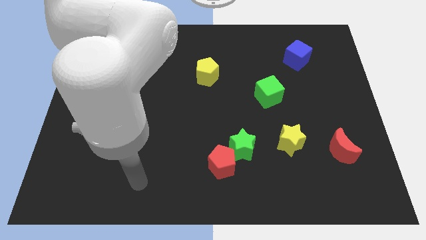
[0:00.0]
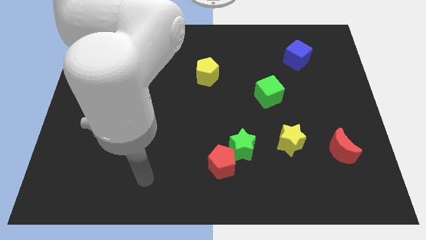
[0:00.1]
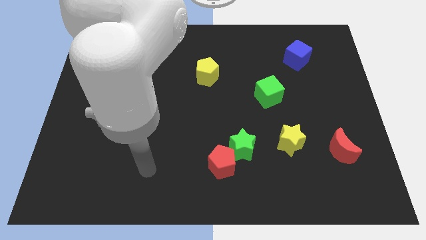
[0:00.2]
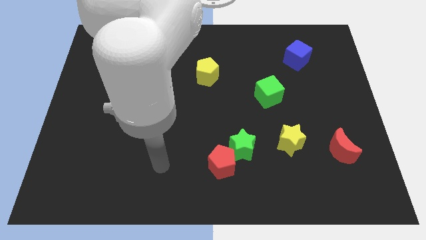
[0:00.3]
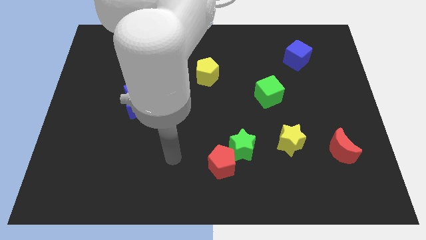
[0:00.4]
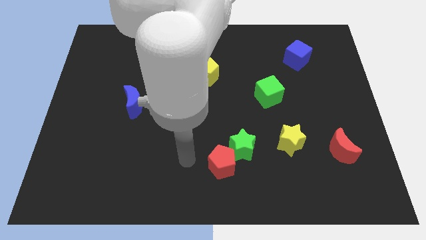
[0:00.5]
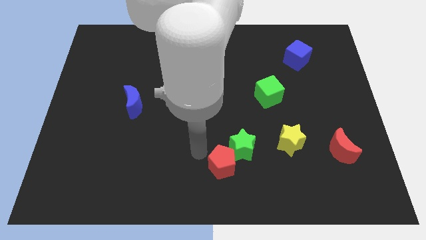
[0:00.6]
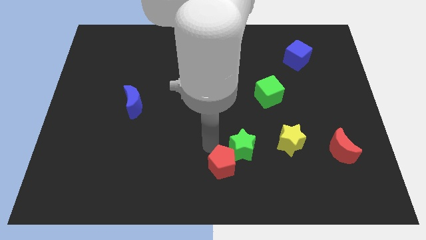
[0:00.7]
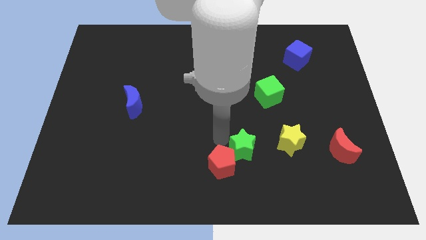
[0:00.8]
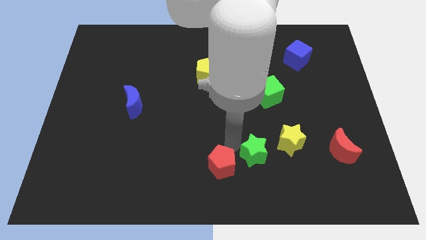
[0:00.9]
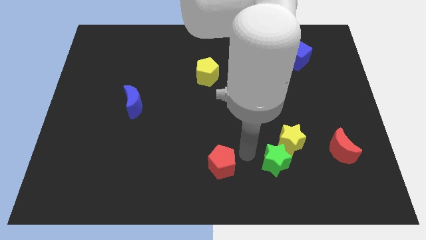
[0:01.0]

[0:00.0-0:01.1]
separate the red pentagon from the green star

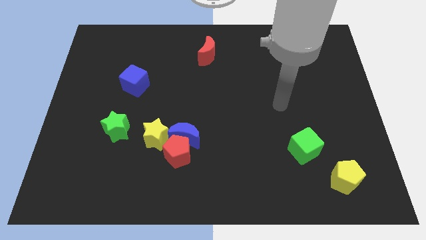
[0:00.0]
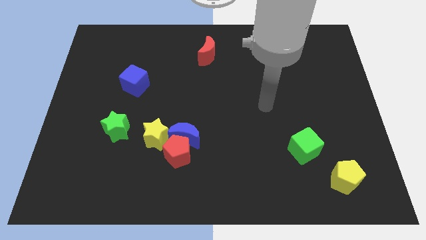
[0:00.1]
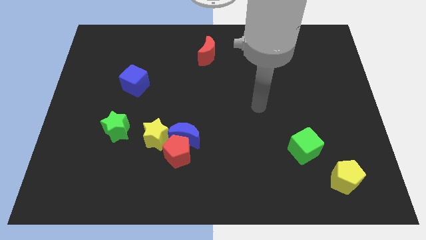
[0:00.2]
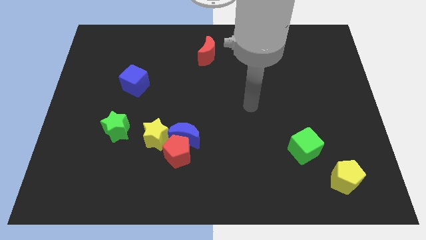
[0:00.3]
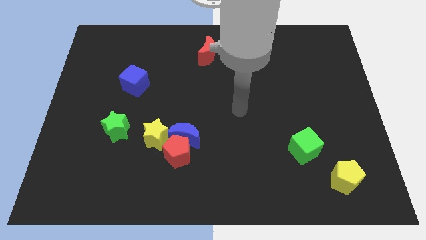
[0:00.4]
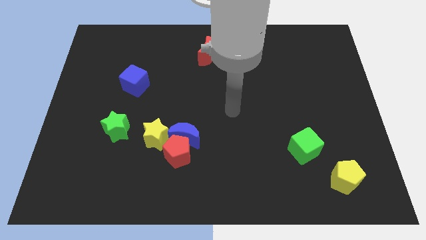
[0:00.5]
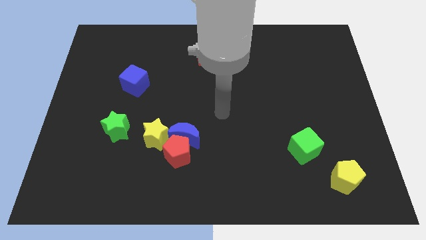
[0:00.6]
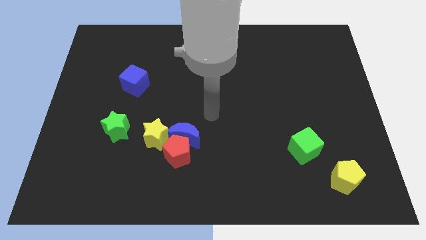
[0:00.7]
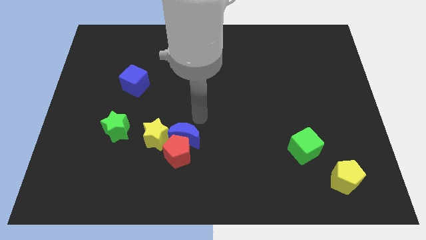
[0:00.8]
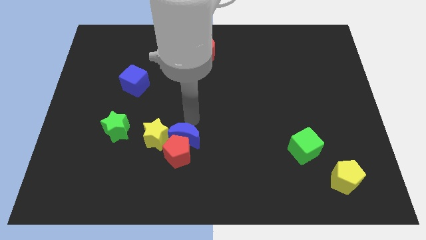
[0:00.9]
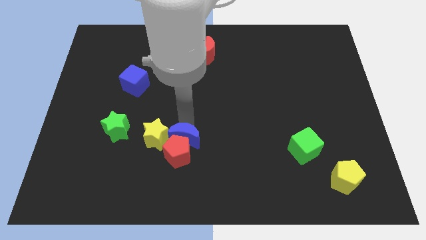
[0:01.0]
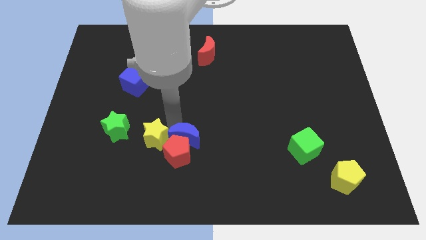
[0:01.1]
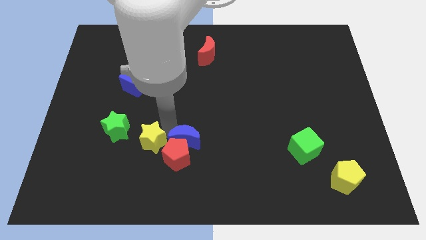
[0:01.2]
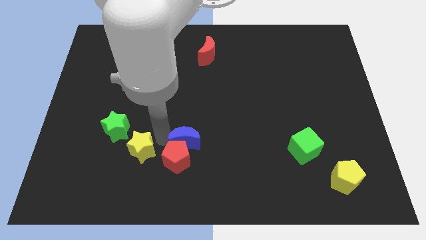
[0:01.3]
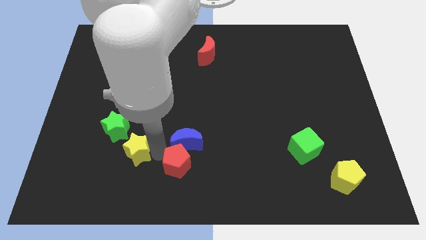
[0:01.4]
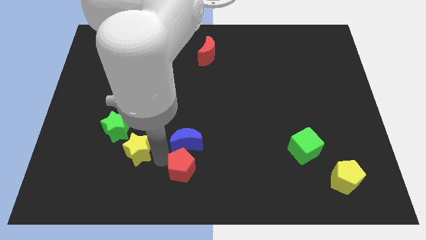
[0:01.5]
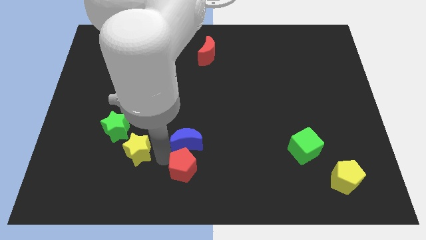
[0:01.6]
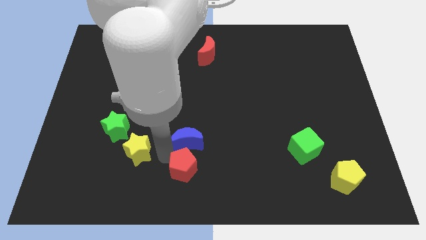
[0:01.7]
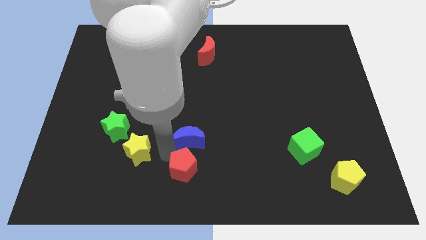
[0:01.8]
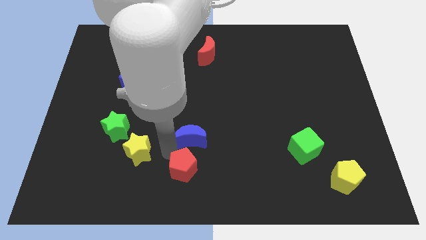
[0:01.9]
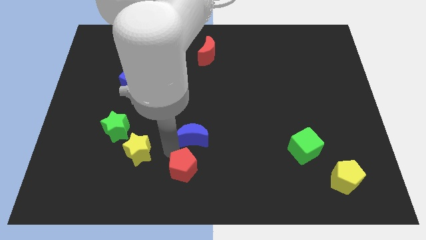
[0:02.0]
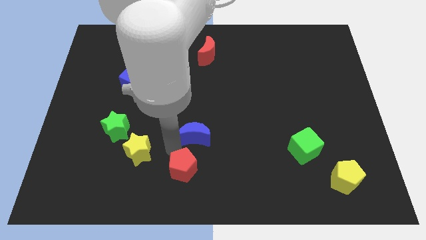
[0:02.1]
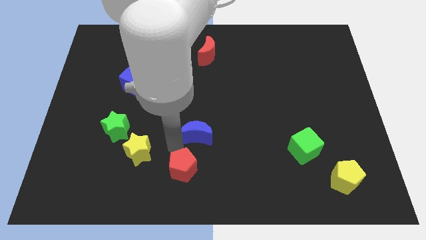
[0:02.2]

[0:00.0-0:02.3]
pull the blue moon apart from the red pentagon and yellow star

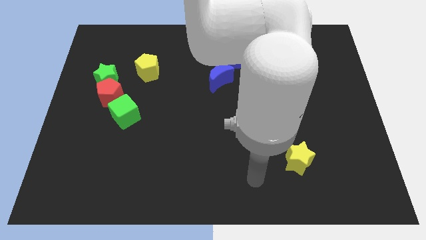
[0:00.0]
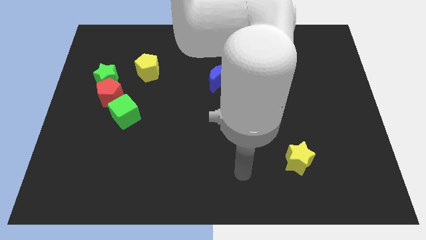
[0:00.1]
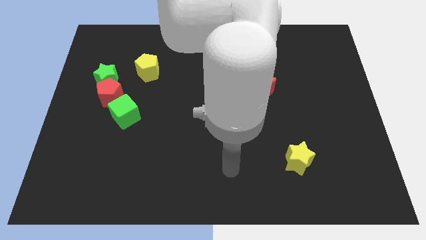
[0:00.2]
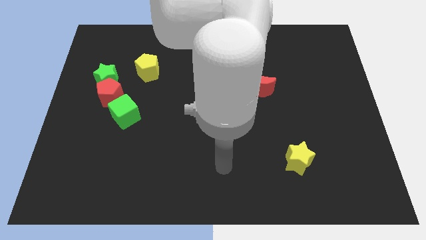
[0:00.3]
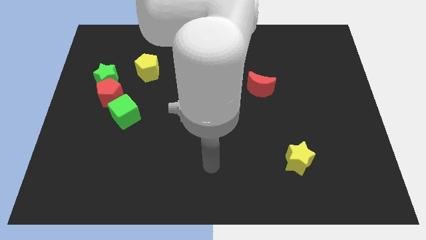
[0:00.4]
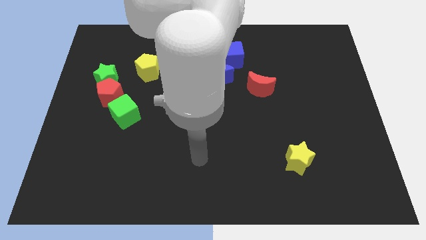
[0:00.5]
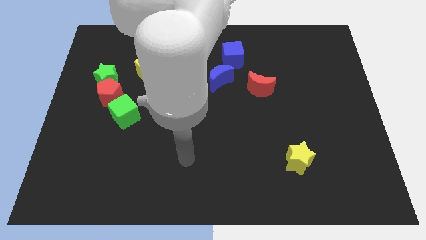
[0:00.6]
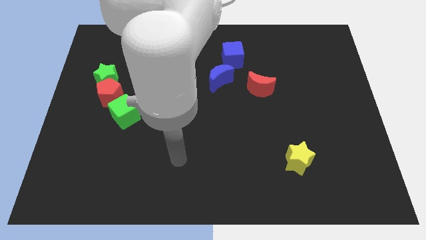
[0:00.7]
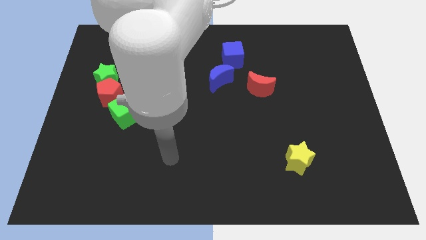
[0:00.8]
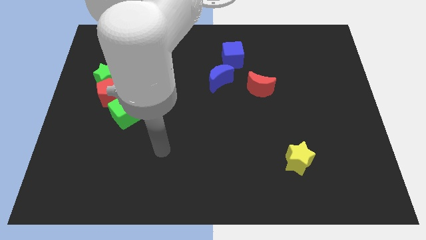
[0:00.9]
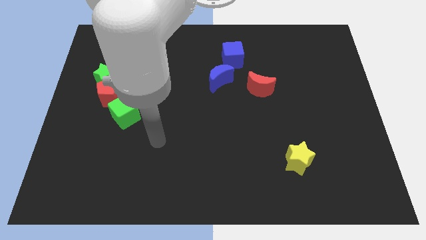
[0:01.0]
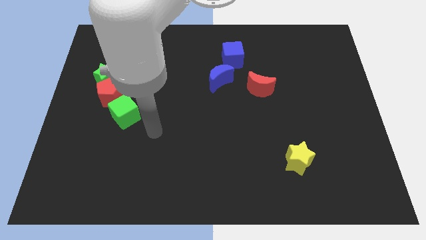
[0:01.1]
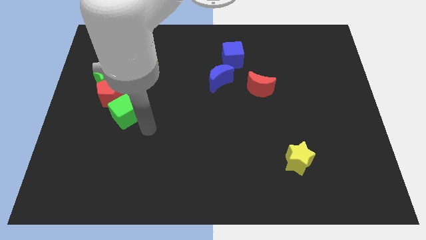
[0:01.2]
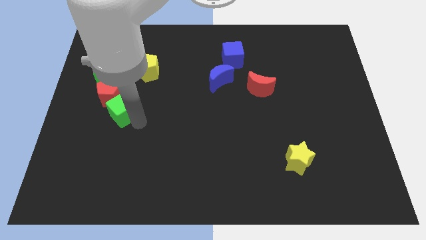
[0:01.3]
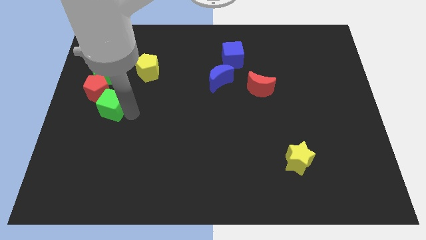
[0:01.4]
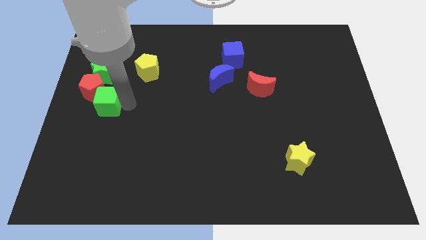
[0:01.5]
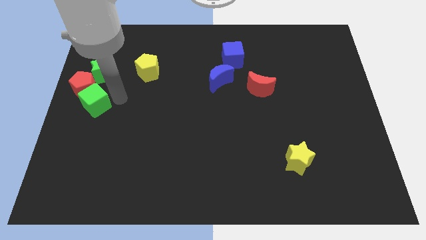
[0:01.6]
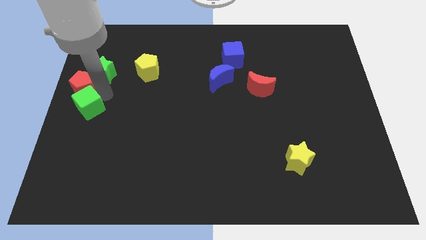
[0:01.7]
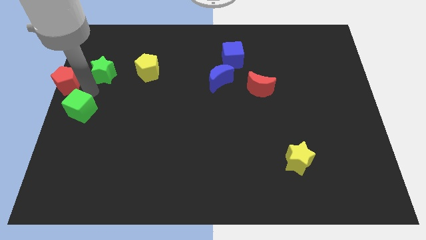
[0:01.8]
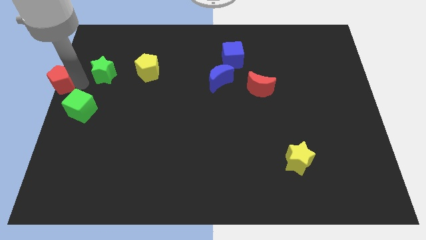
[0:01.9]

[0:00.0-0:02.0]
separate the green star from the red pentagon

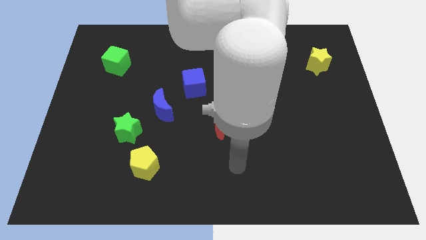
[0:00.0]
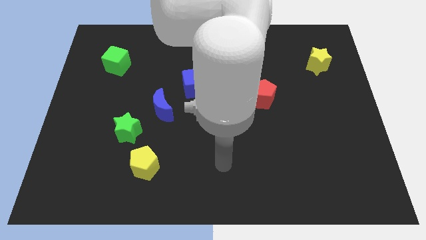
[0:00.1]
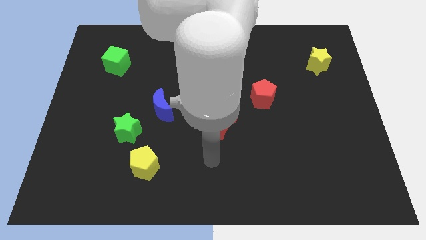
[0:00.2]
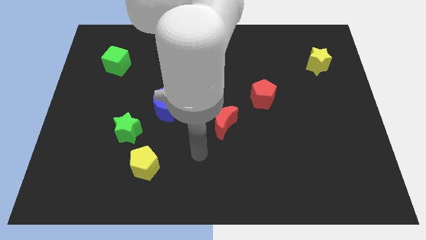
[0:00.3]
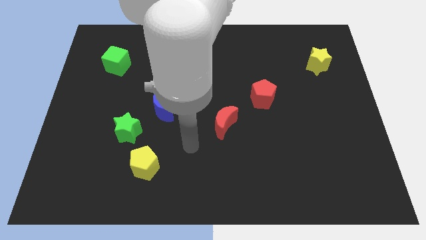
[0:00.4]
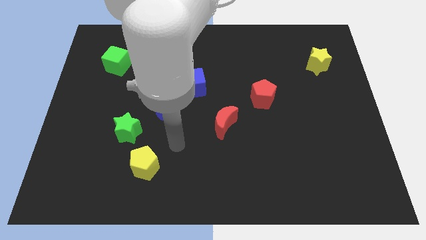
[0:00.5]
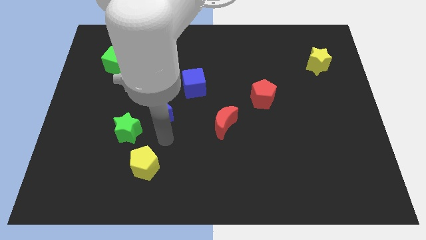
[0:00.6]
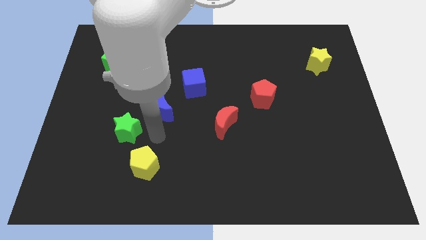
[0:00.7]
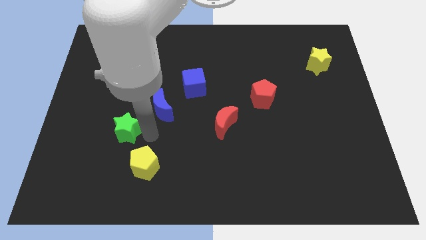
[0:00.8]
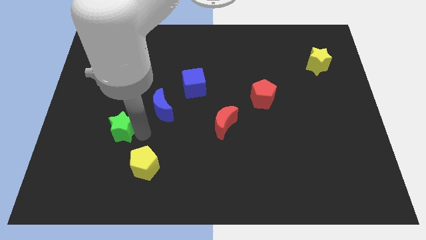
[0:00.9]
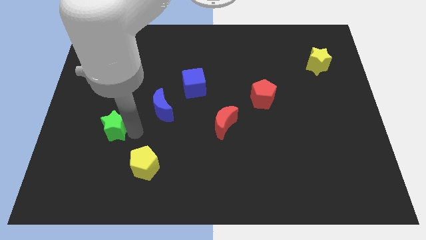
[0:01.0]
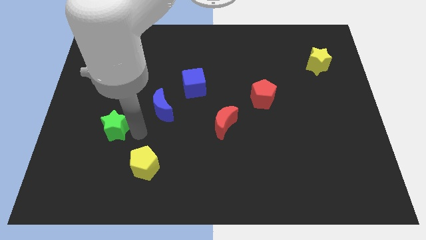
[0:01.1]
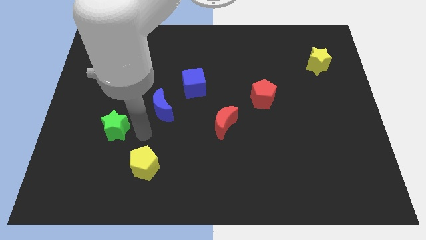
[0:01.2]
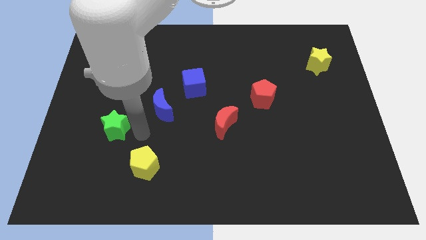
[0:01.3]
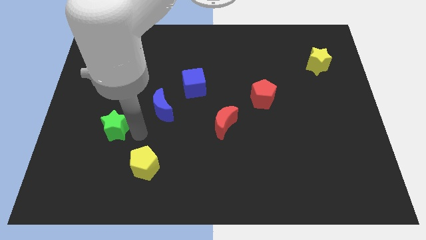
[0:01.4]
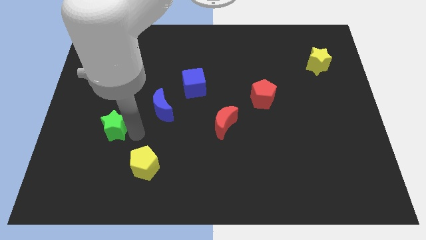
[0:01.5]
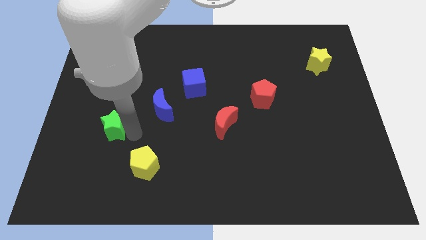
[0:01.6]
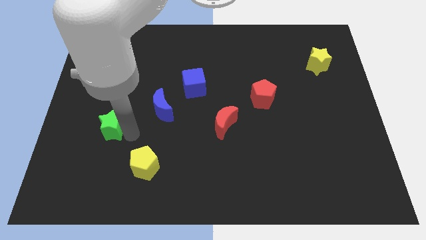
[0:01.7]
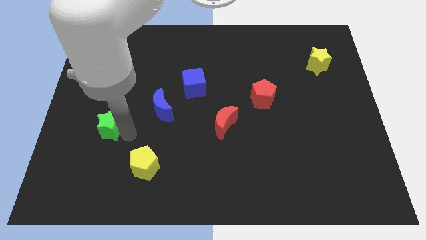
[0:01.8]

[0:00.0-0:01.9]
move the green star away from the blue moon and yellow pentagon

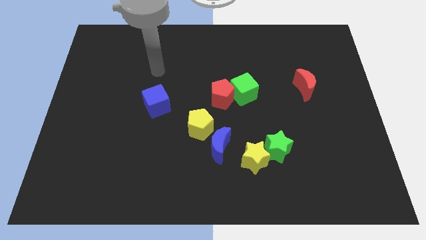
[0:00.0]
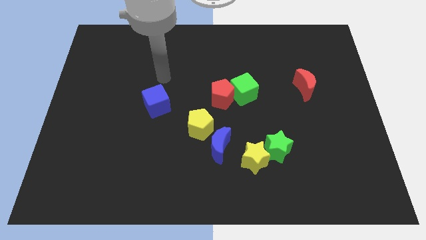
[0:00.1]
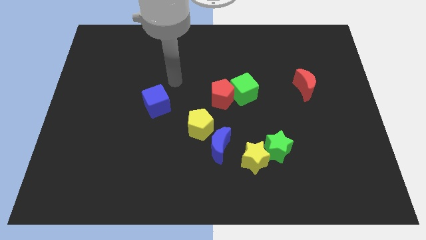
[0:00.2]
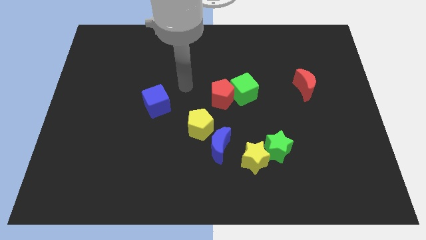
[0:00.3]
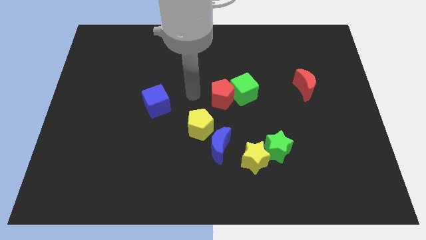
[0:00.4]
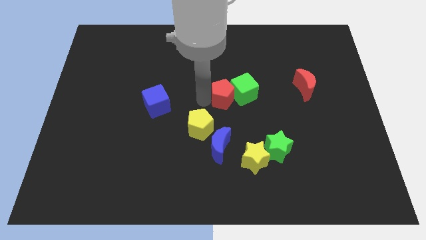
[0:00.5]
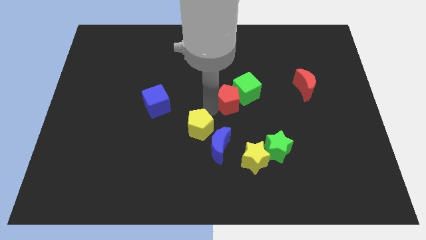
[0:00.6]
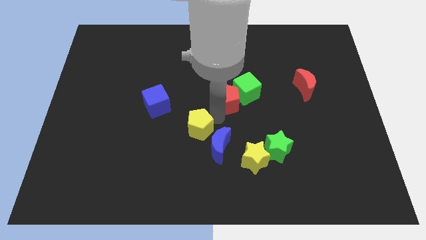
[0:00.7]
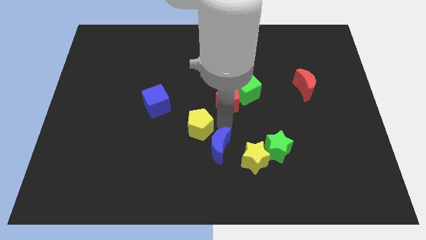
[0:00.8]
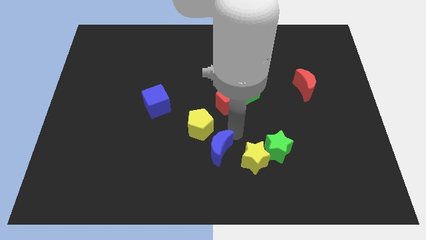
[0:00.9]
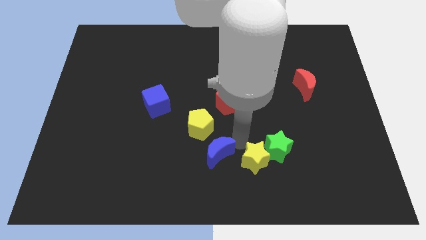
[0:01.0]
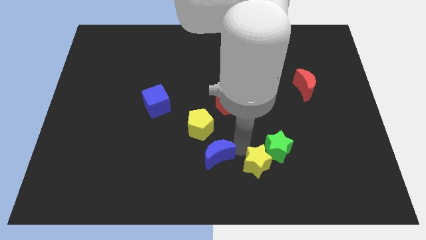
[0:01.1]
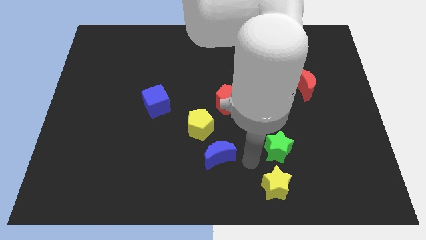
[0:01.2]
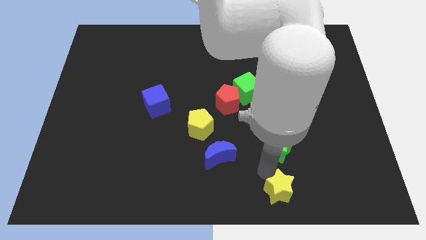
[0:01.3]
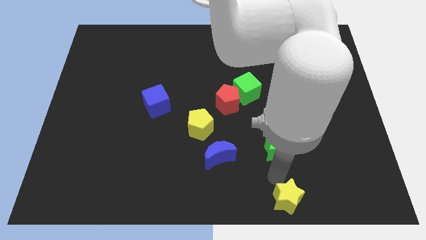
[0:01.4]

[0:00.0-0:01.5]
separate the green star from the yellow star

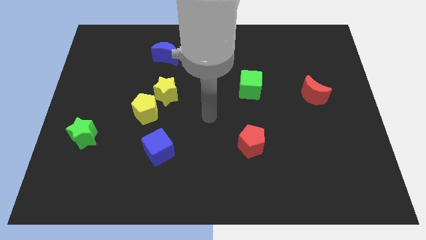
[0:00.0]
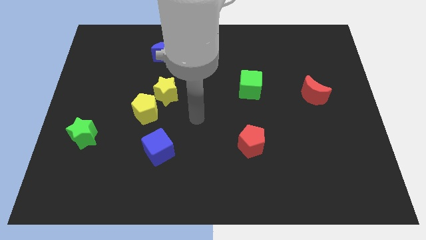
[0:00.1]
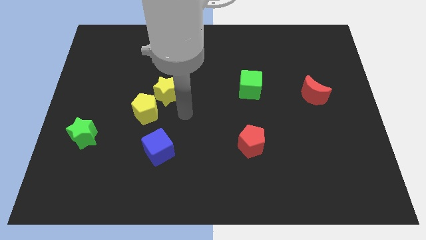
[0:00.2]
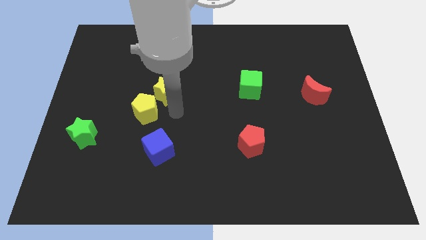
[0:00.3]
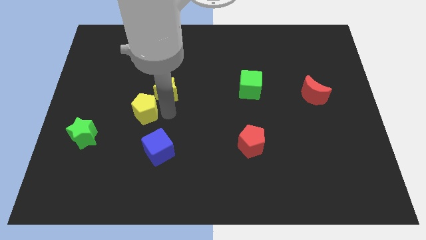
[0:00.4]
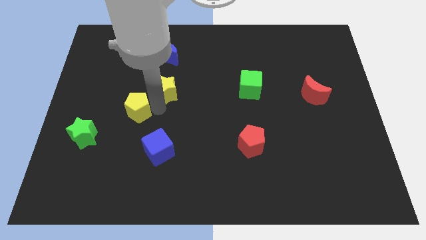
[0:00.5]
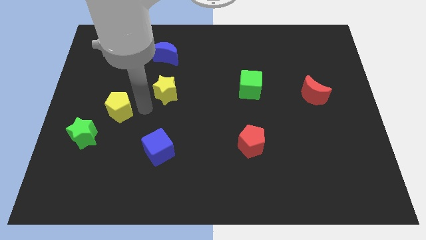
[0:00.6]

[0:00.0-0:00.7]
separate the yellow star from the yellow pentagon
